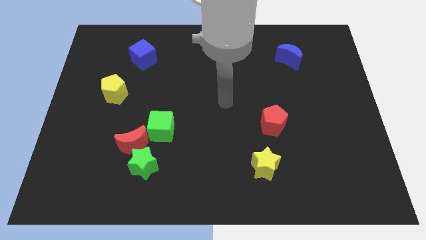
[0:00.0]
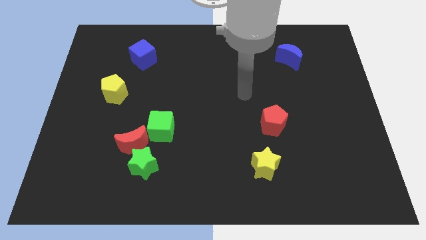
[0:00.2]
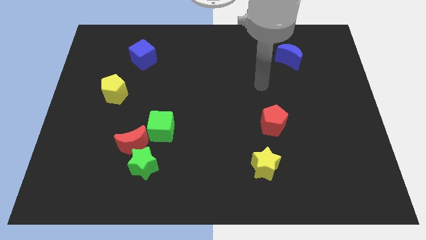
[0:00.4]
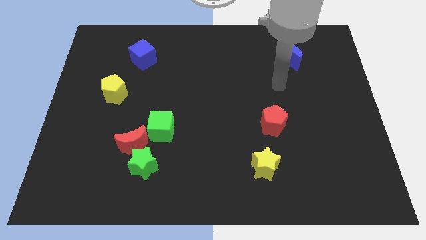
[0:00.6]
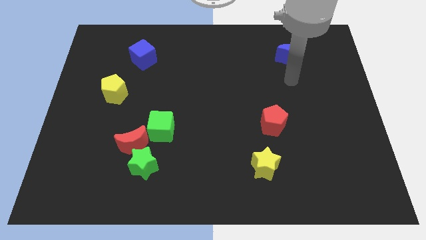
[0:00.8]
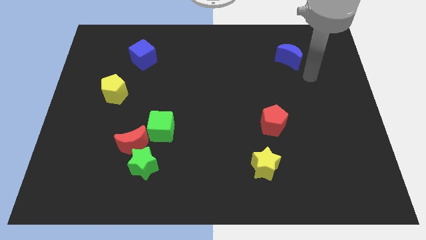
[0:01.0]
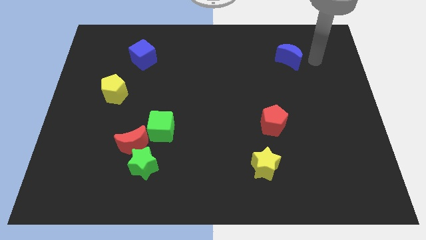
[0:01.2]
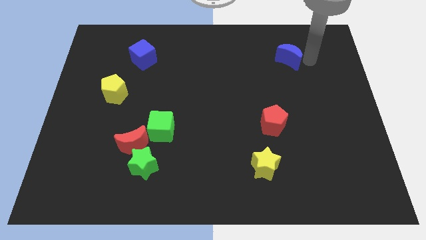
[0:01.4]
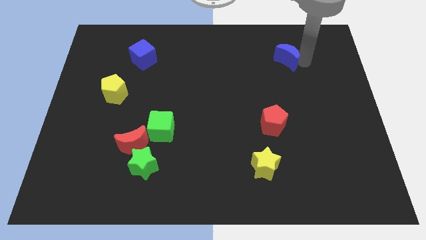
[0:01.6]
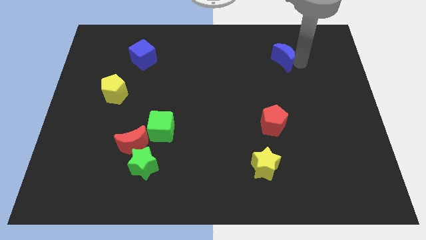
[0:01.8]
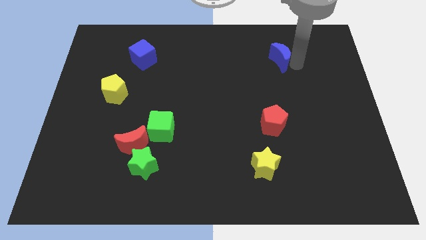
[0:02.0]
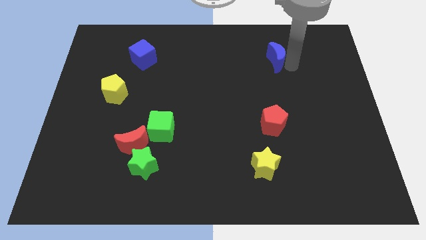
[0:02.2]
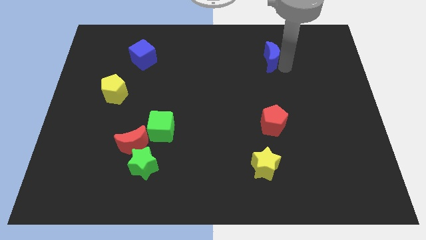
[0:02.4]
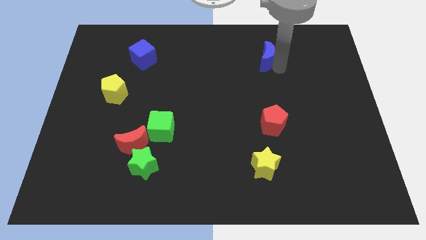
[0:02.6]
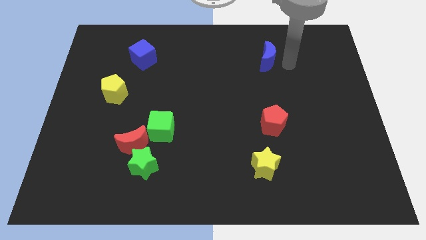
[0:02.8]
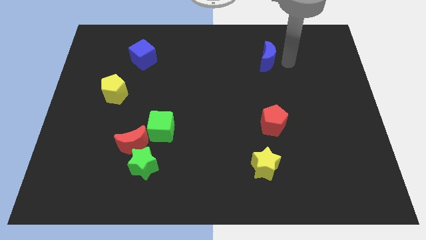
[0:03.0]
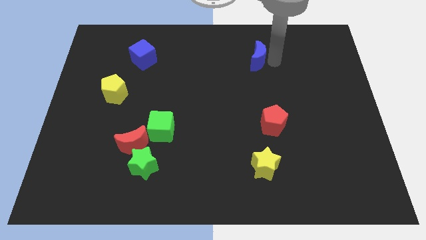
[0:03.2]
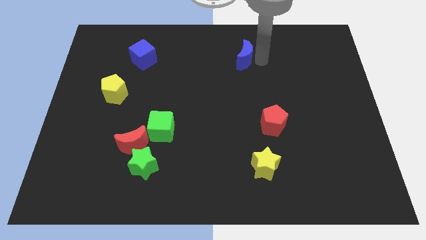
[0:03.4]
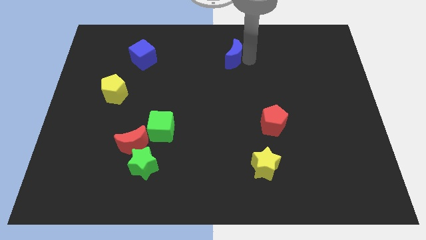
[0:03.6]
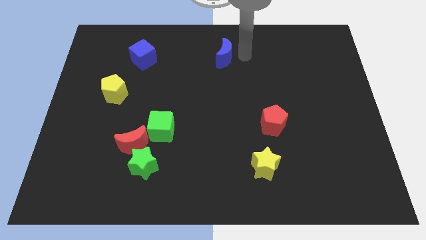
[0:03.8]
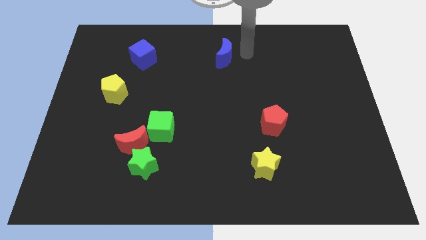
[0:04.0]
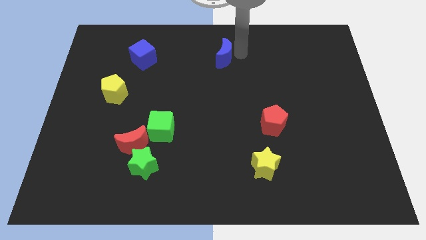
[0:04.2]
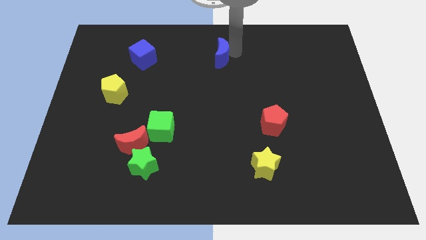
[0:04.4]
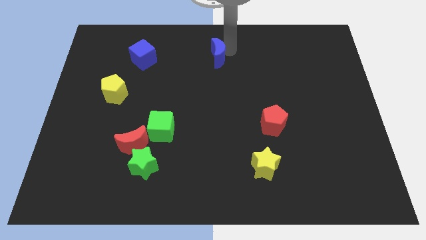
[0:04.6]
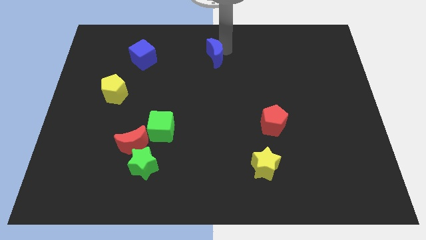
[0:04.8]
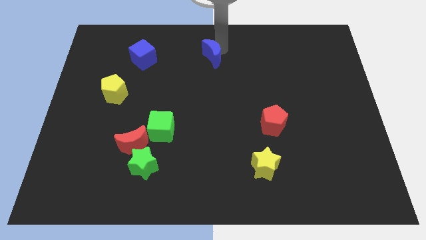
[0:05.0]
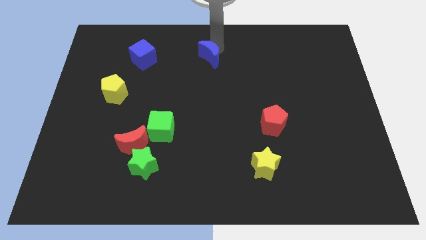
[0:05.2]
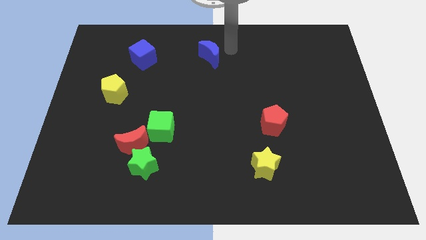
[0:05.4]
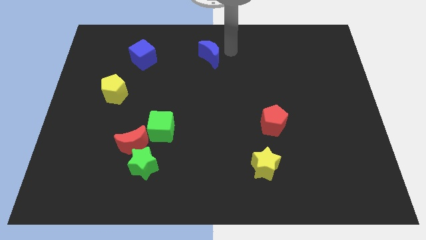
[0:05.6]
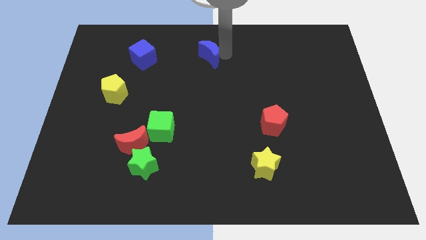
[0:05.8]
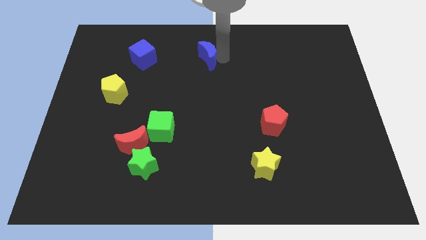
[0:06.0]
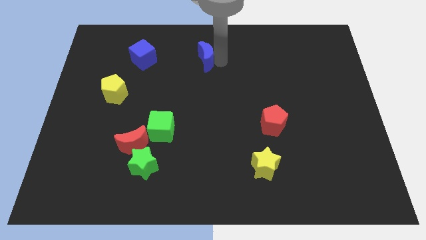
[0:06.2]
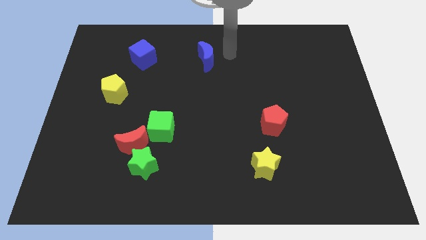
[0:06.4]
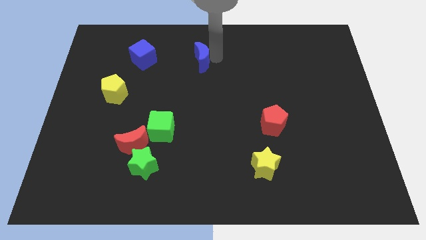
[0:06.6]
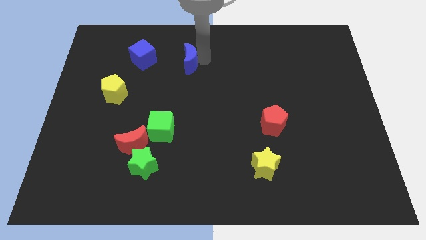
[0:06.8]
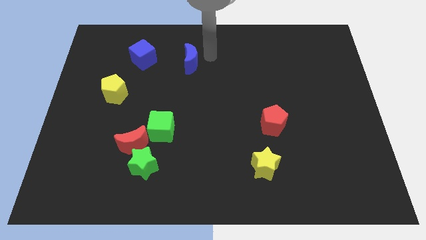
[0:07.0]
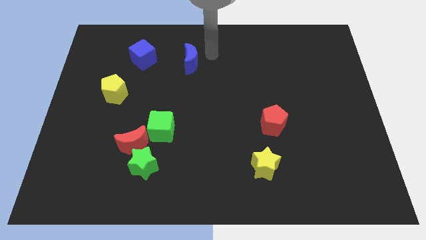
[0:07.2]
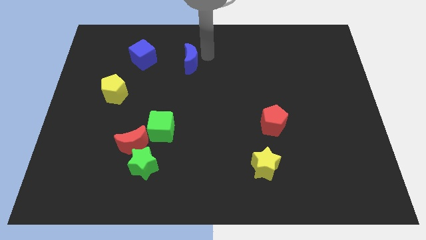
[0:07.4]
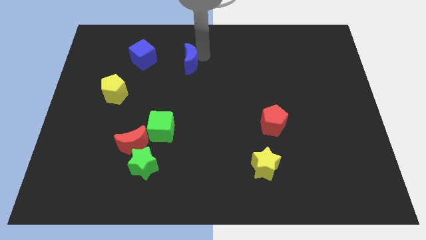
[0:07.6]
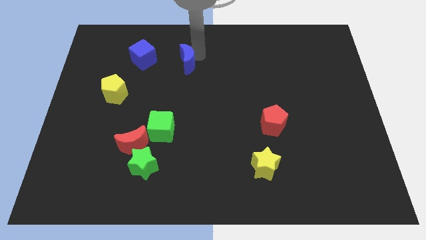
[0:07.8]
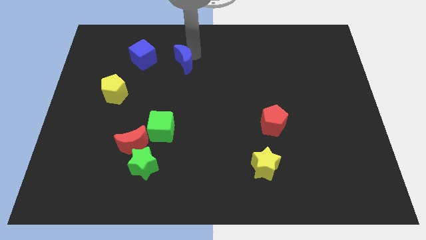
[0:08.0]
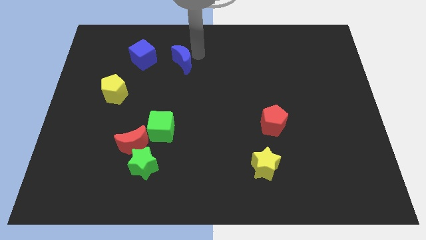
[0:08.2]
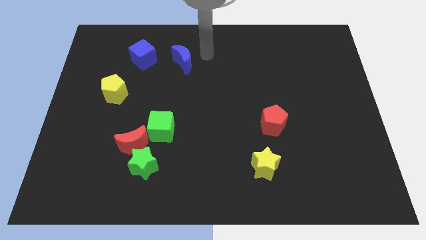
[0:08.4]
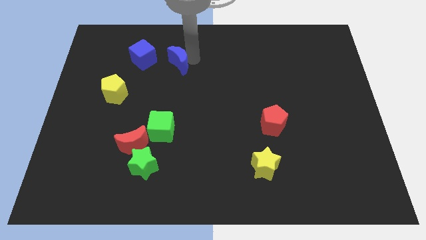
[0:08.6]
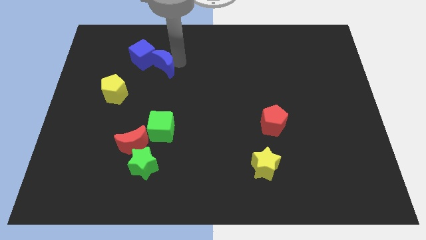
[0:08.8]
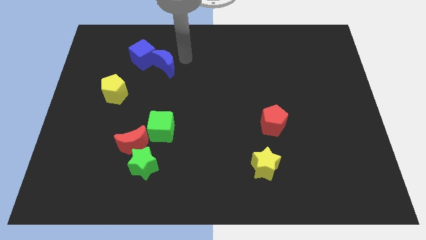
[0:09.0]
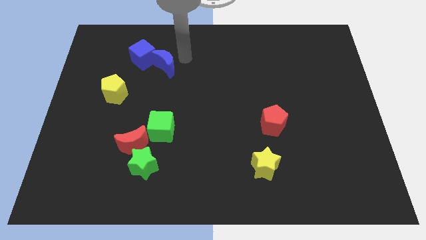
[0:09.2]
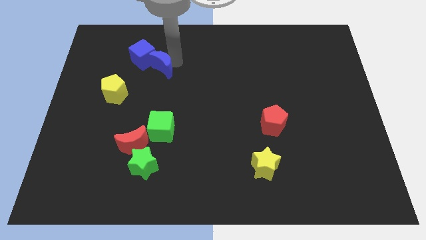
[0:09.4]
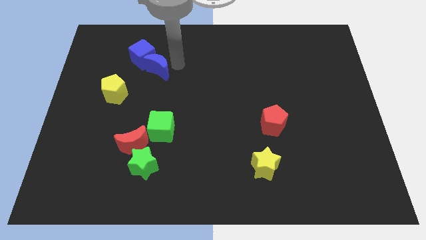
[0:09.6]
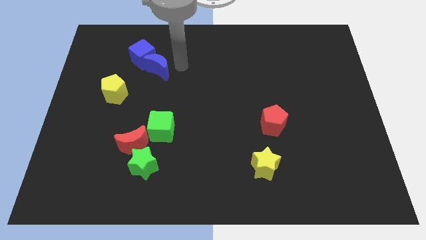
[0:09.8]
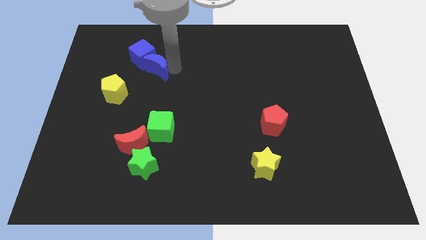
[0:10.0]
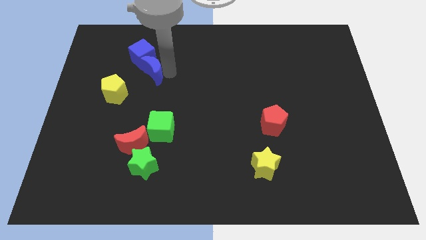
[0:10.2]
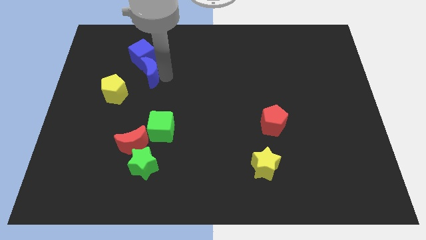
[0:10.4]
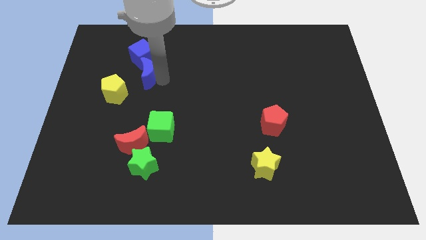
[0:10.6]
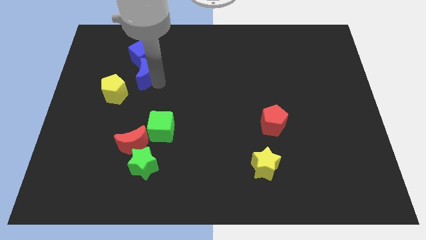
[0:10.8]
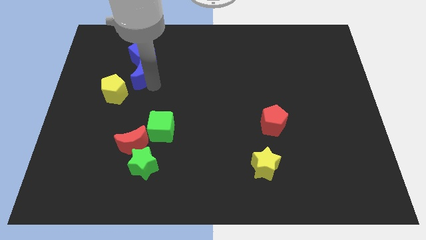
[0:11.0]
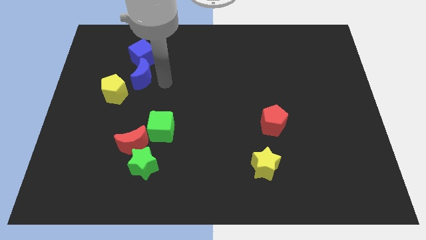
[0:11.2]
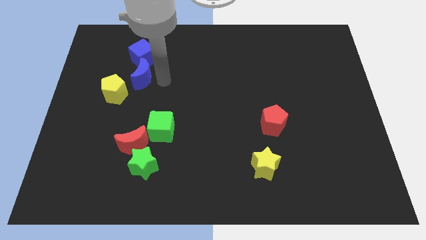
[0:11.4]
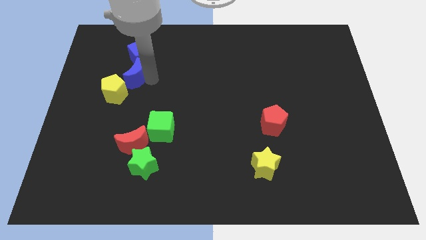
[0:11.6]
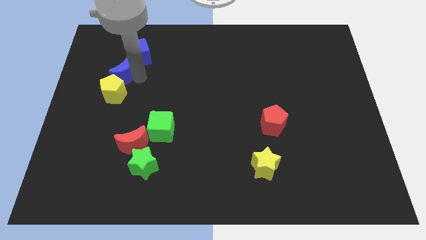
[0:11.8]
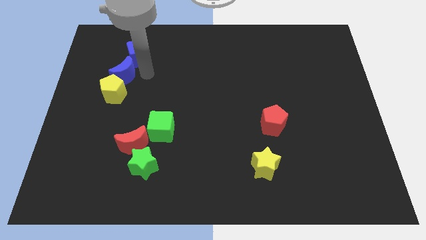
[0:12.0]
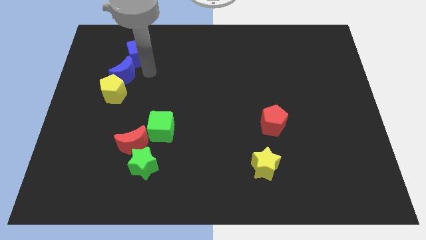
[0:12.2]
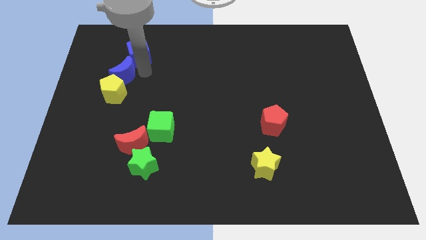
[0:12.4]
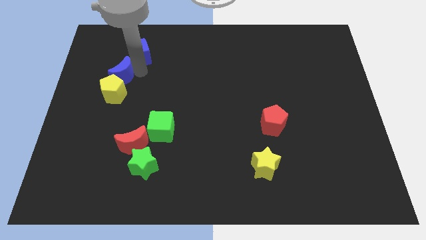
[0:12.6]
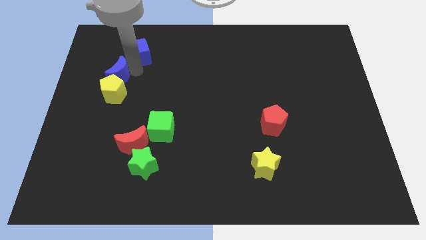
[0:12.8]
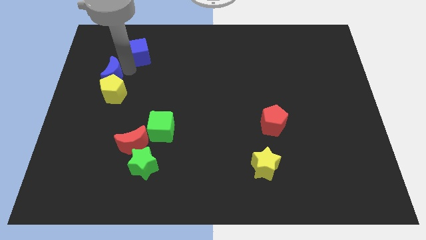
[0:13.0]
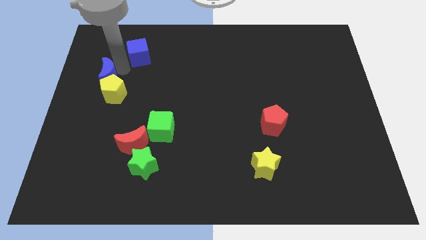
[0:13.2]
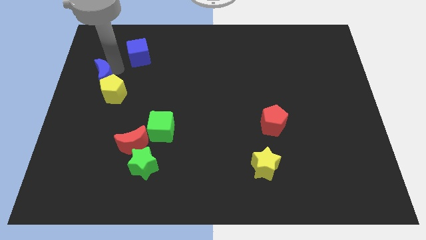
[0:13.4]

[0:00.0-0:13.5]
push the blue moon to the left side of the board

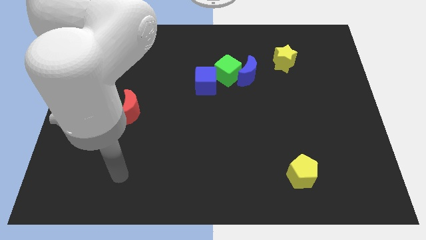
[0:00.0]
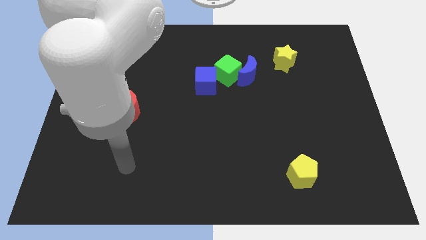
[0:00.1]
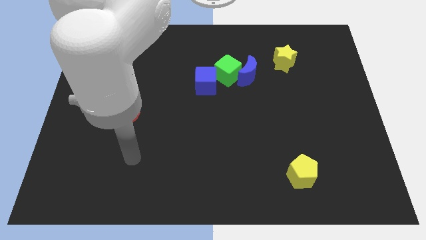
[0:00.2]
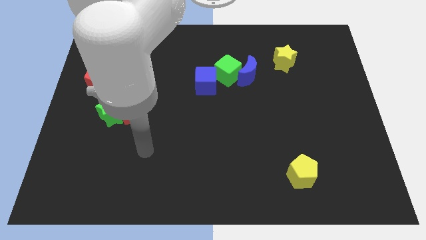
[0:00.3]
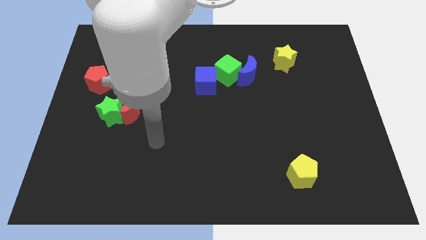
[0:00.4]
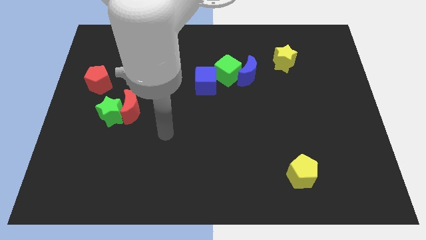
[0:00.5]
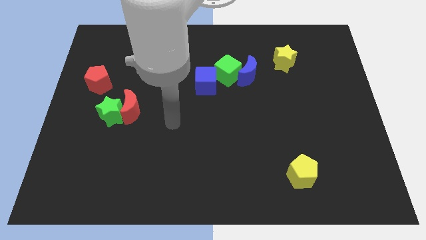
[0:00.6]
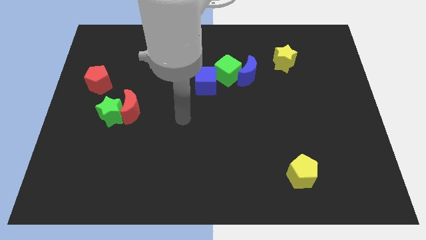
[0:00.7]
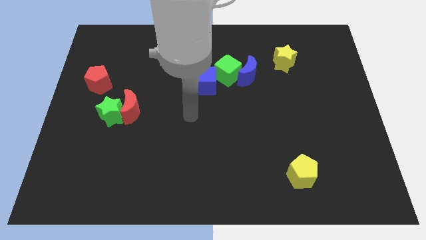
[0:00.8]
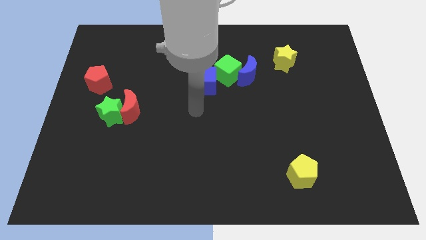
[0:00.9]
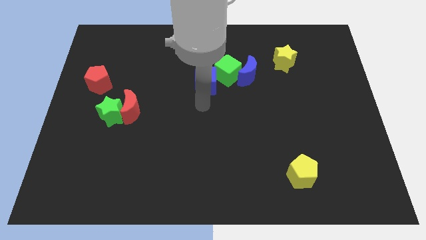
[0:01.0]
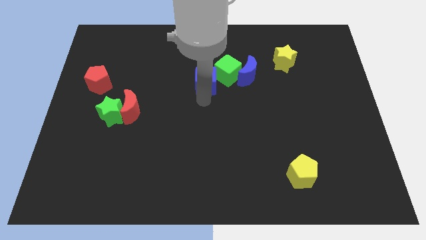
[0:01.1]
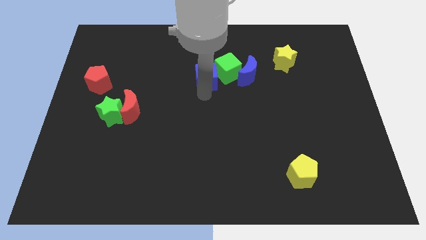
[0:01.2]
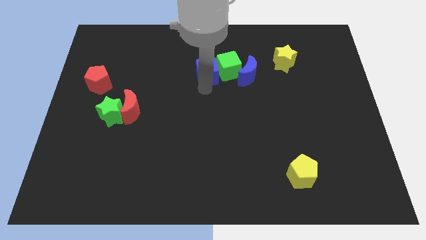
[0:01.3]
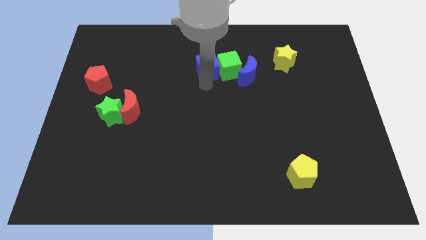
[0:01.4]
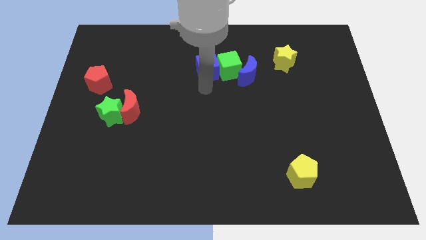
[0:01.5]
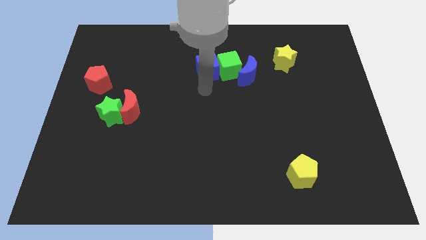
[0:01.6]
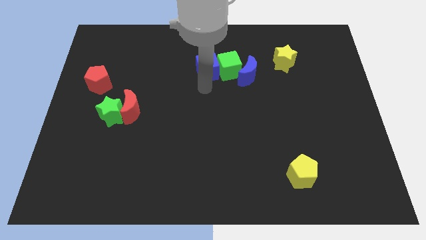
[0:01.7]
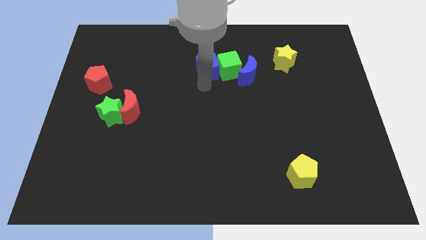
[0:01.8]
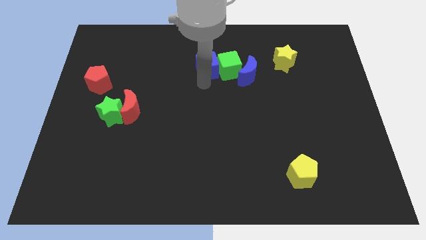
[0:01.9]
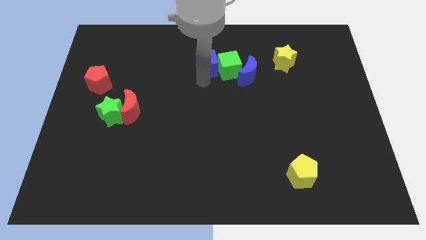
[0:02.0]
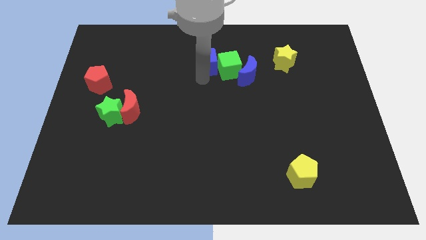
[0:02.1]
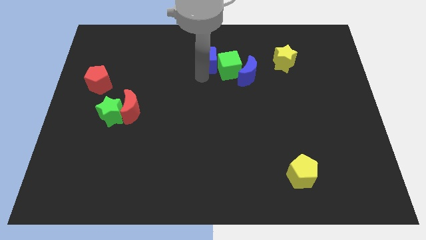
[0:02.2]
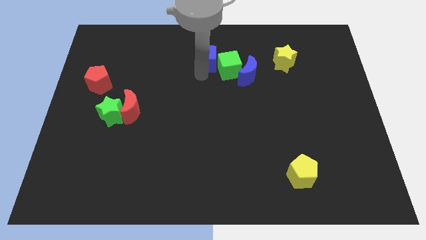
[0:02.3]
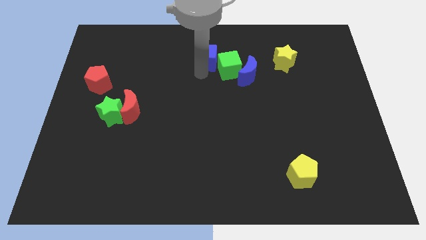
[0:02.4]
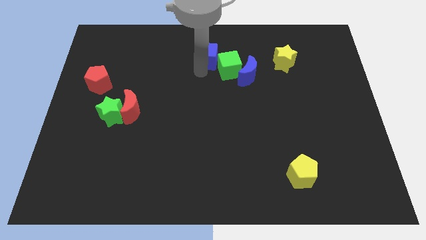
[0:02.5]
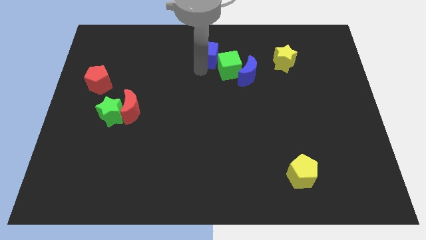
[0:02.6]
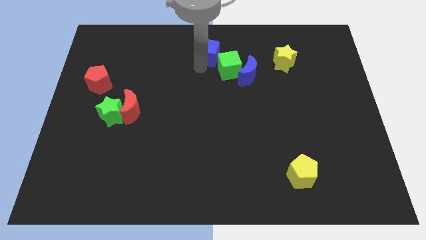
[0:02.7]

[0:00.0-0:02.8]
move the blue cube to the top side
